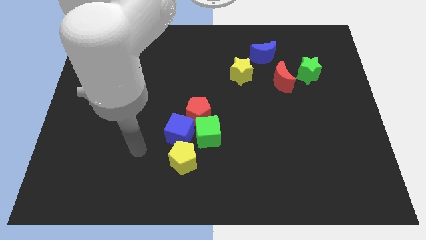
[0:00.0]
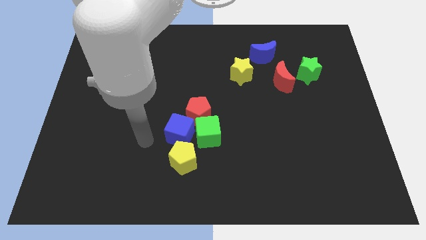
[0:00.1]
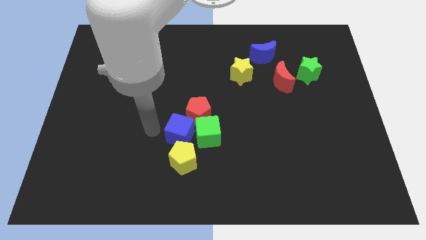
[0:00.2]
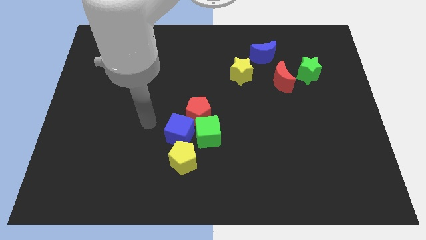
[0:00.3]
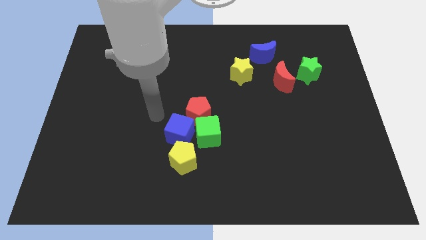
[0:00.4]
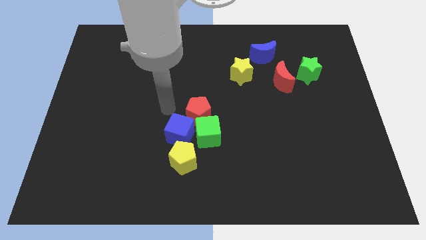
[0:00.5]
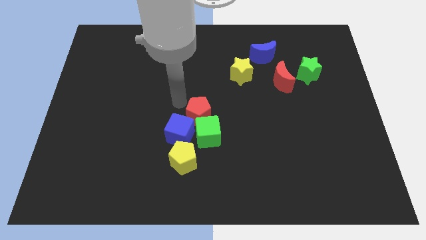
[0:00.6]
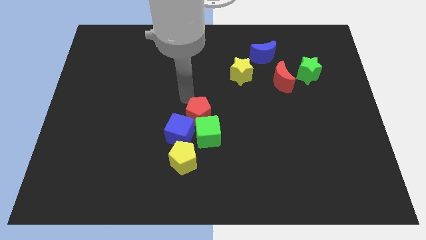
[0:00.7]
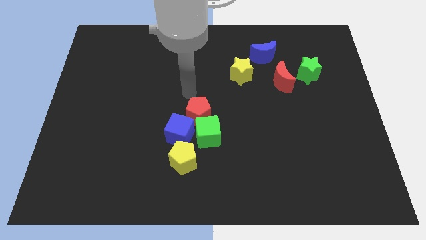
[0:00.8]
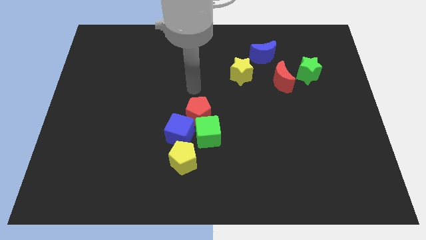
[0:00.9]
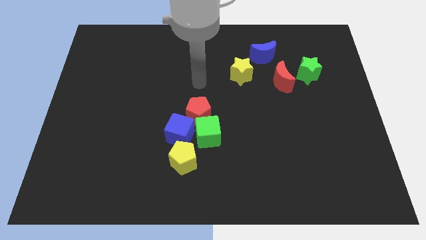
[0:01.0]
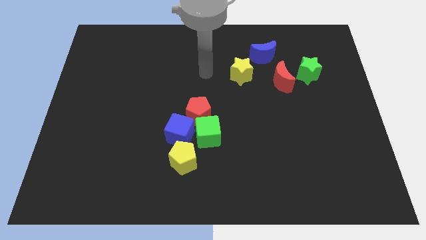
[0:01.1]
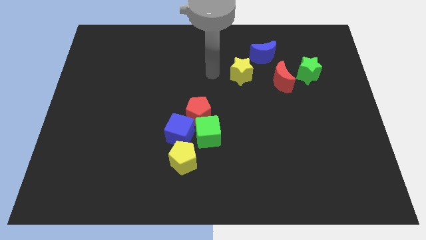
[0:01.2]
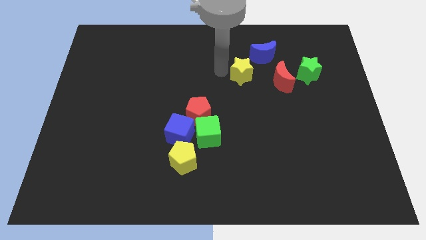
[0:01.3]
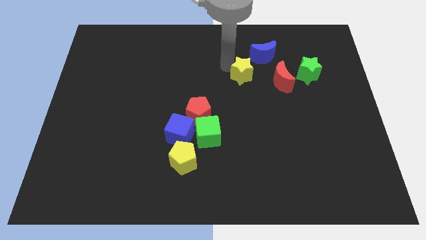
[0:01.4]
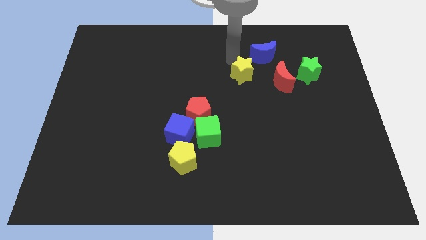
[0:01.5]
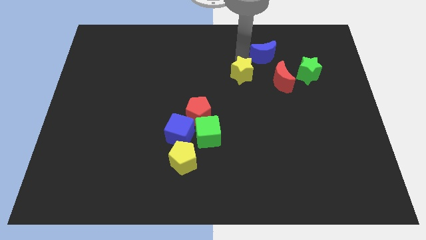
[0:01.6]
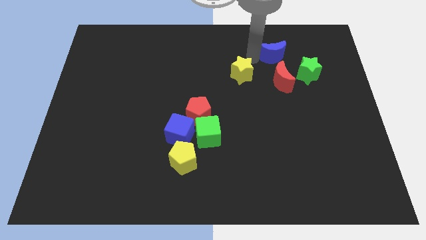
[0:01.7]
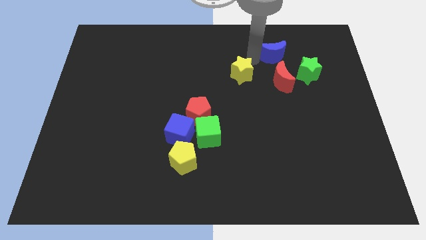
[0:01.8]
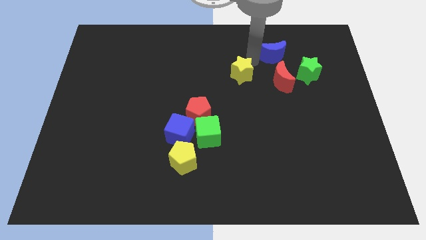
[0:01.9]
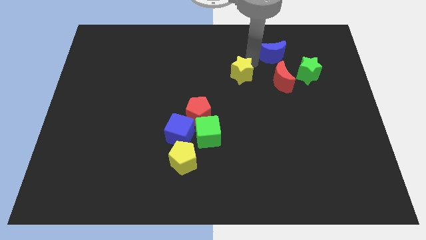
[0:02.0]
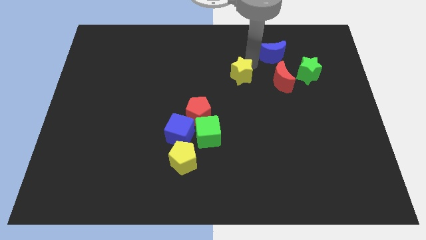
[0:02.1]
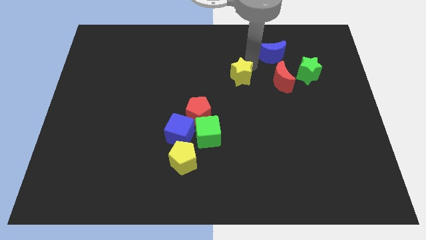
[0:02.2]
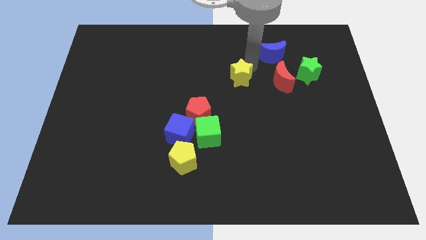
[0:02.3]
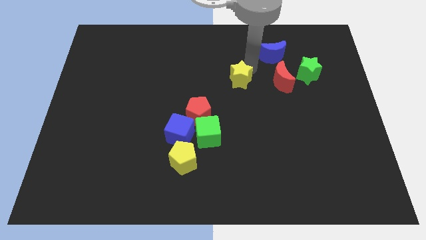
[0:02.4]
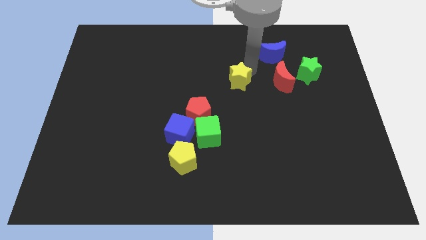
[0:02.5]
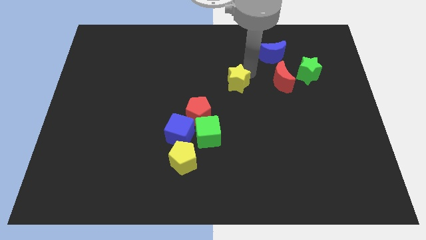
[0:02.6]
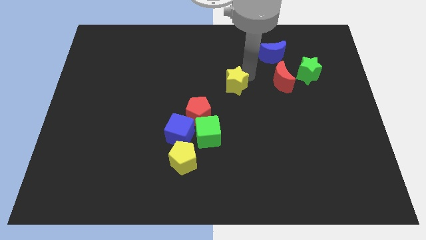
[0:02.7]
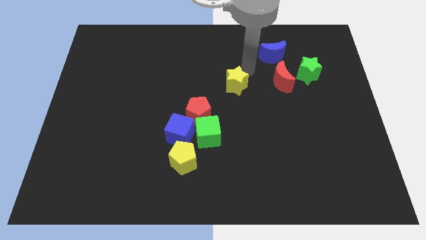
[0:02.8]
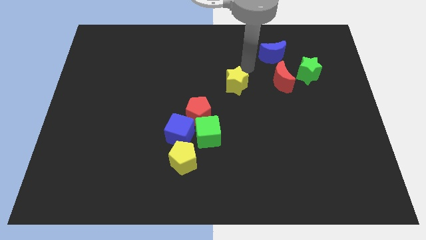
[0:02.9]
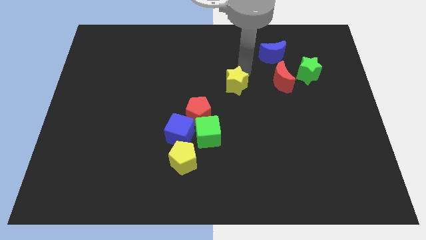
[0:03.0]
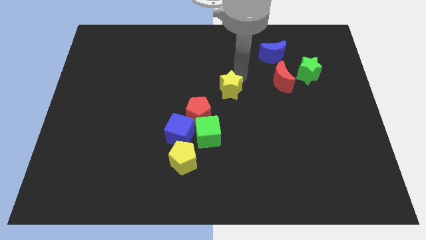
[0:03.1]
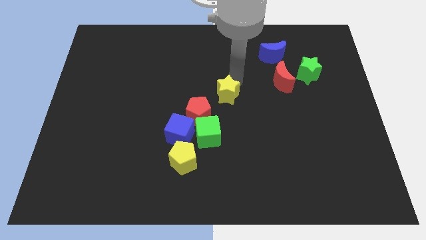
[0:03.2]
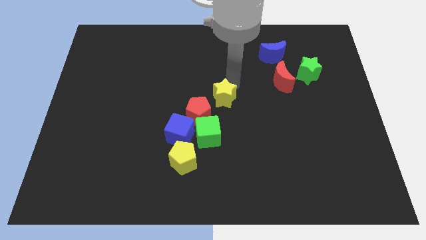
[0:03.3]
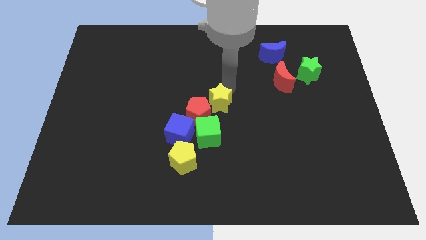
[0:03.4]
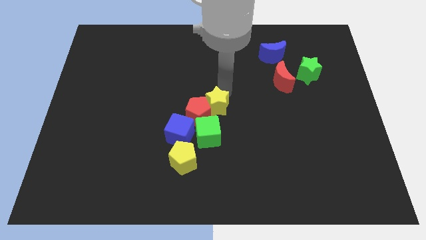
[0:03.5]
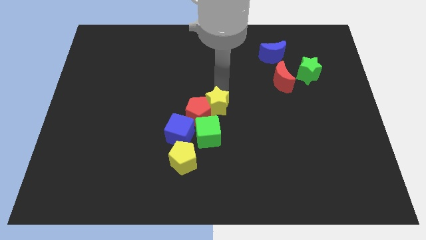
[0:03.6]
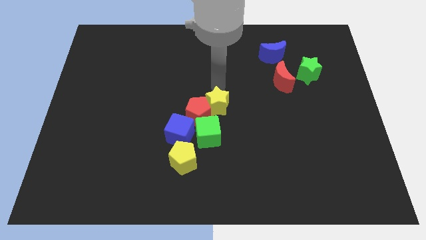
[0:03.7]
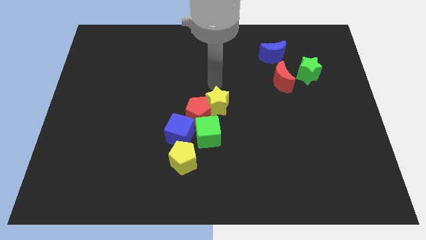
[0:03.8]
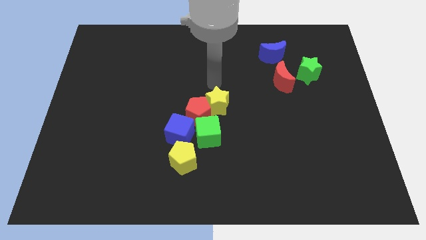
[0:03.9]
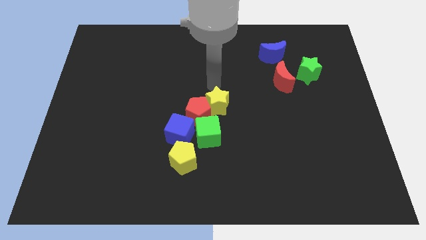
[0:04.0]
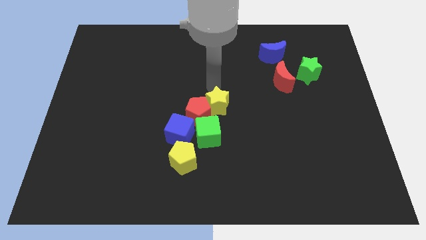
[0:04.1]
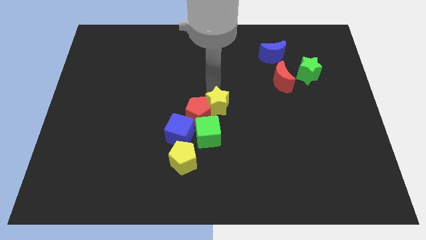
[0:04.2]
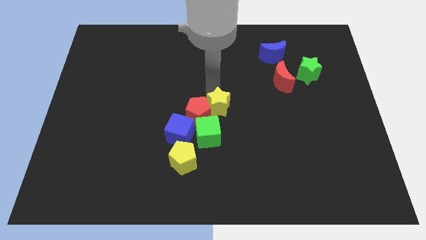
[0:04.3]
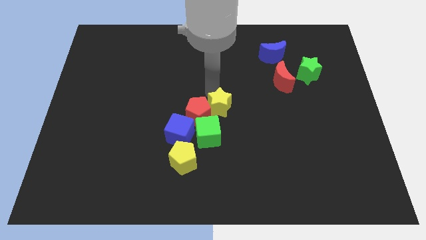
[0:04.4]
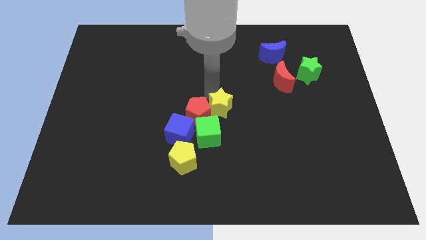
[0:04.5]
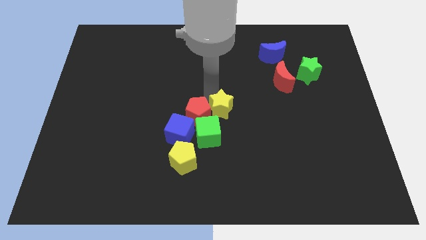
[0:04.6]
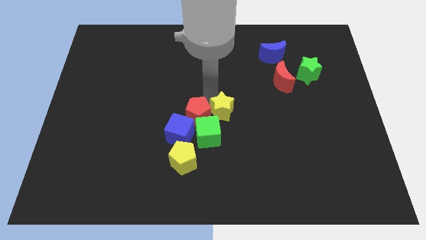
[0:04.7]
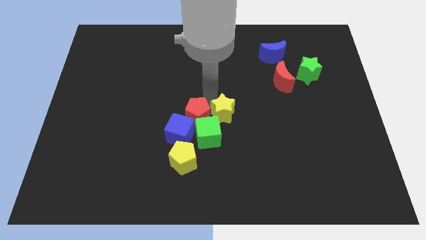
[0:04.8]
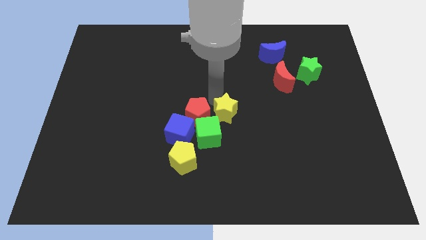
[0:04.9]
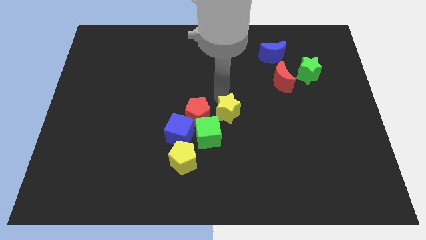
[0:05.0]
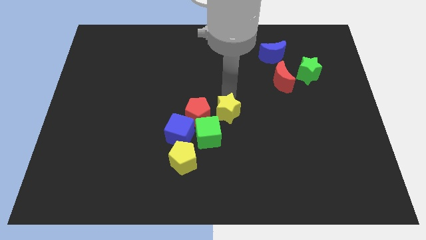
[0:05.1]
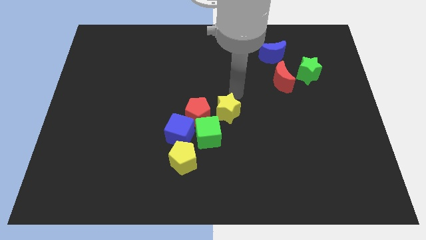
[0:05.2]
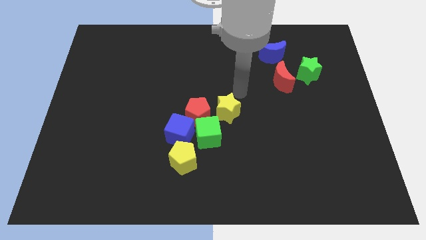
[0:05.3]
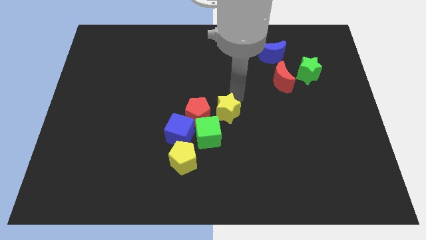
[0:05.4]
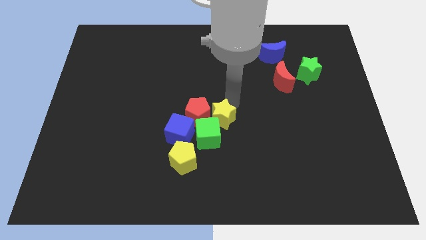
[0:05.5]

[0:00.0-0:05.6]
slide the yellow star to the green cube

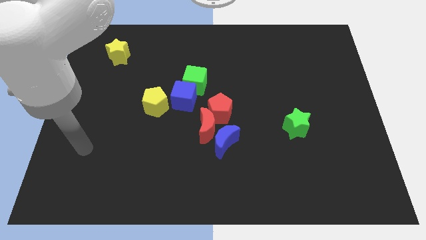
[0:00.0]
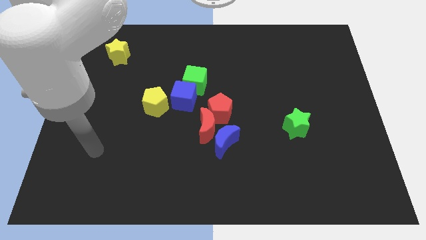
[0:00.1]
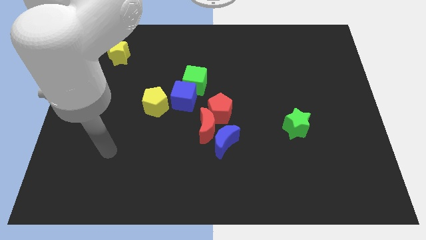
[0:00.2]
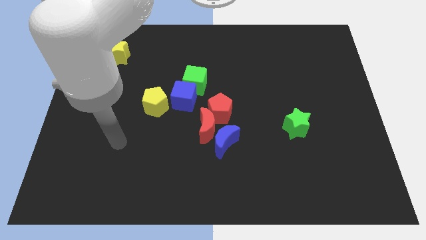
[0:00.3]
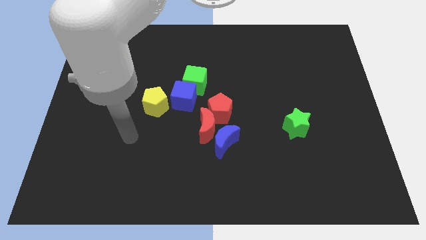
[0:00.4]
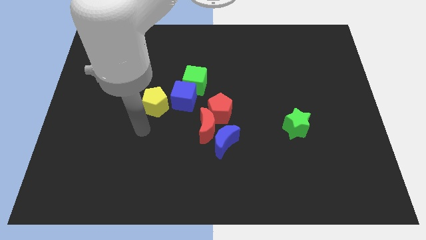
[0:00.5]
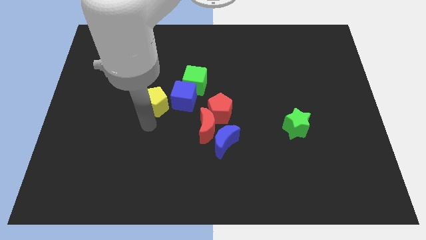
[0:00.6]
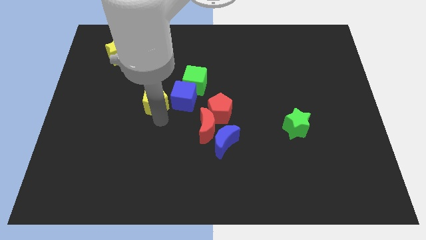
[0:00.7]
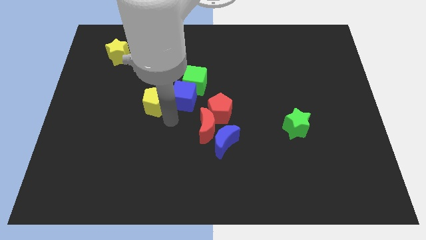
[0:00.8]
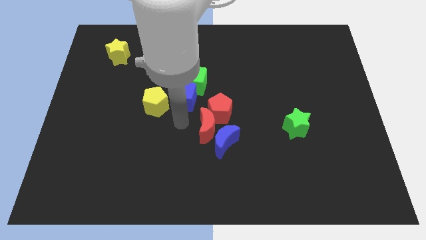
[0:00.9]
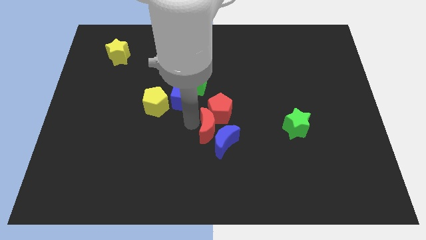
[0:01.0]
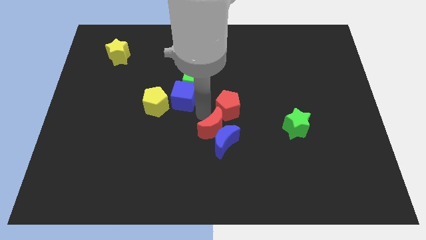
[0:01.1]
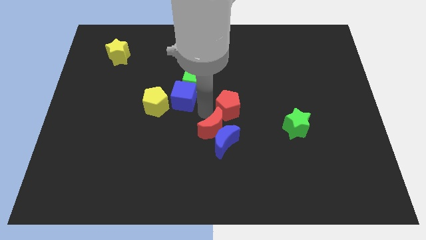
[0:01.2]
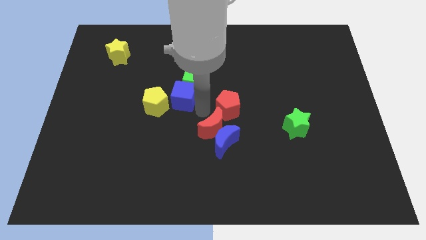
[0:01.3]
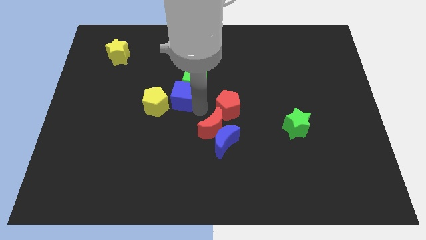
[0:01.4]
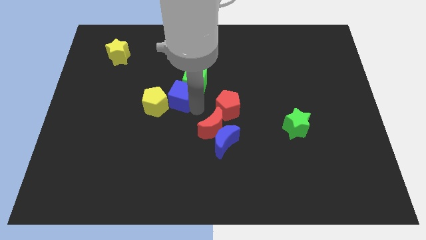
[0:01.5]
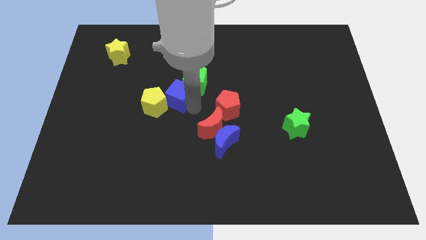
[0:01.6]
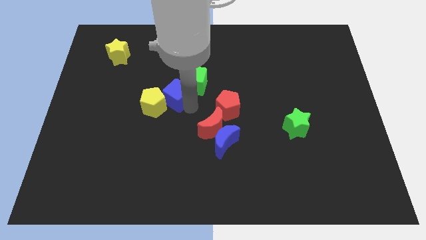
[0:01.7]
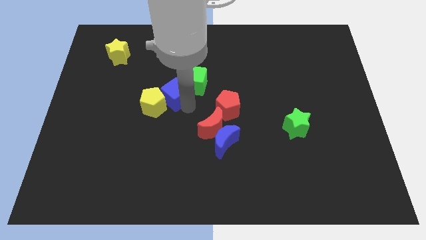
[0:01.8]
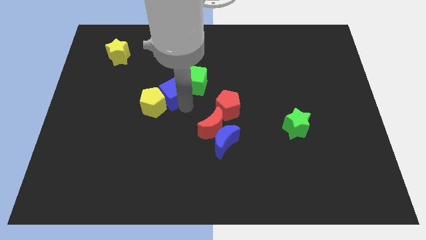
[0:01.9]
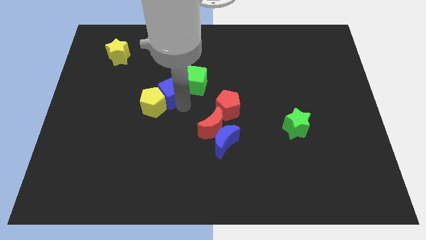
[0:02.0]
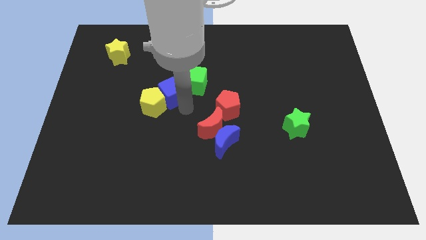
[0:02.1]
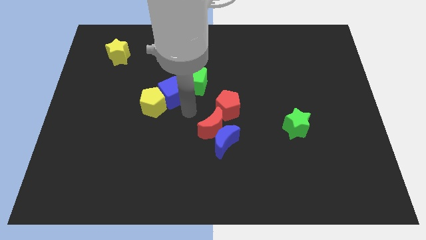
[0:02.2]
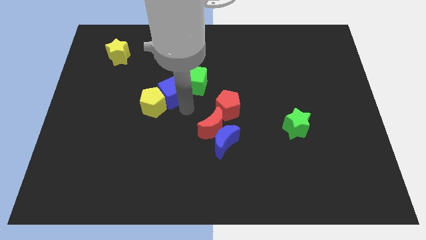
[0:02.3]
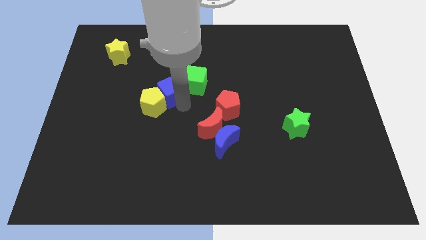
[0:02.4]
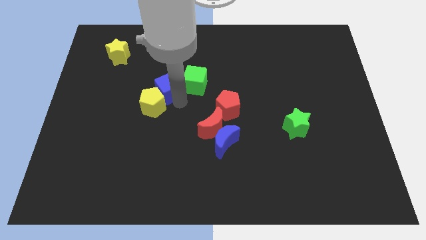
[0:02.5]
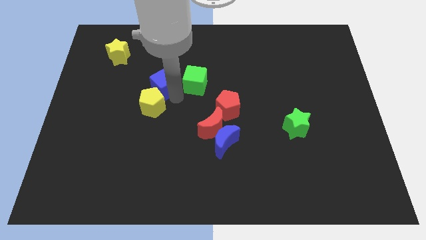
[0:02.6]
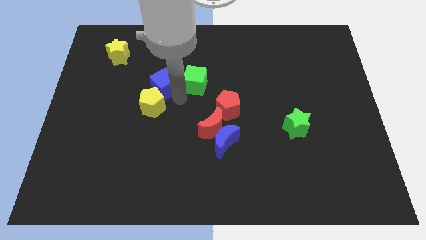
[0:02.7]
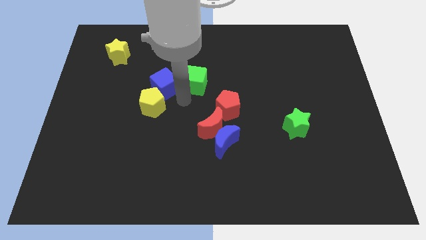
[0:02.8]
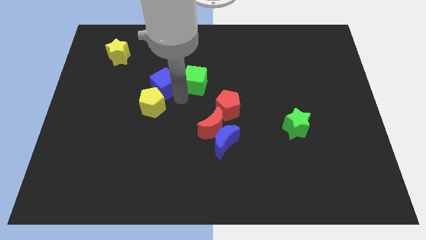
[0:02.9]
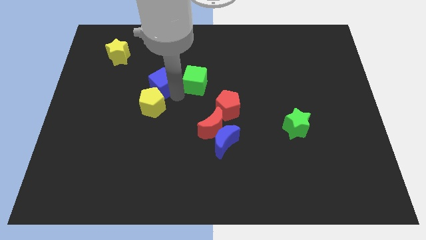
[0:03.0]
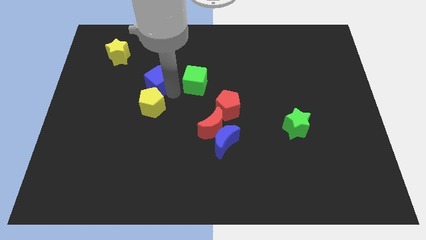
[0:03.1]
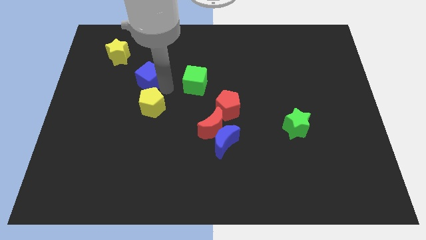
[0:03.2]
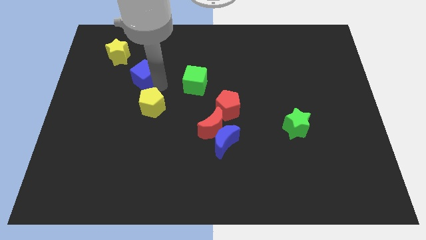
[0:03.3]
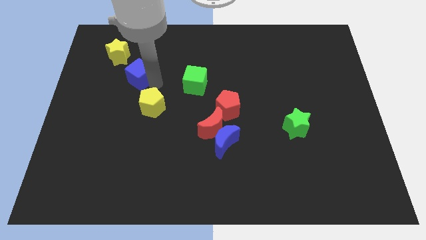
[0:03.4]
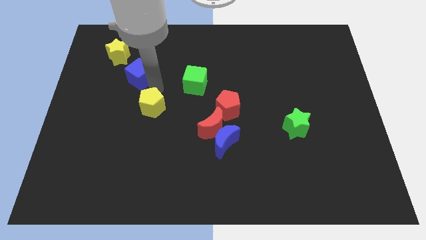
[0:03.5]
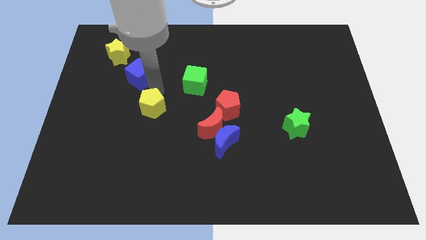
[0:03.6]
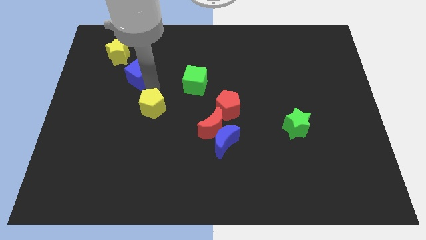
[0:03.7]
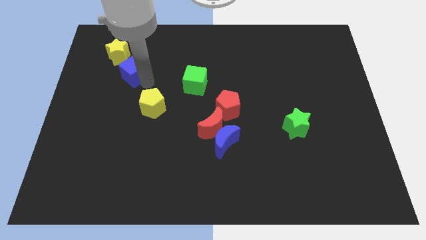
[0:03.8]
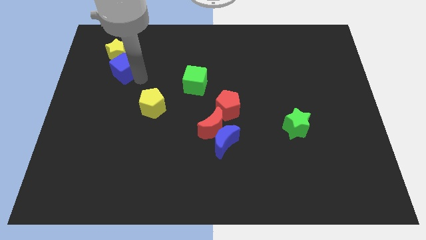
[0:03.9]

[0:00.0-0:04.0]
put the blue cube close to the yellow star
